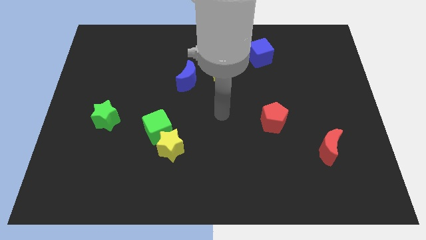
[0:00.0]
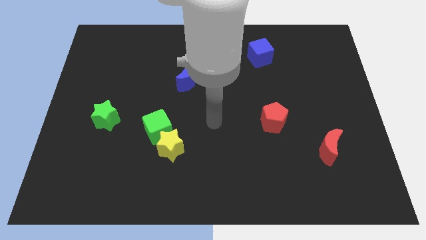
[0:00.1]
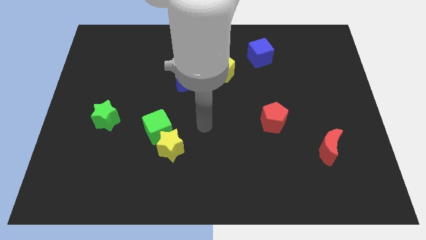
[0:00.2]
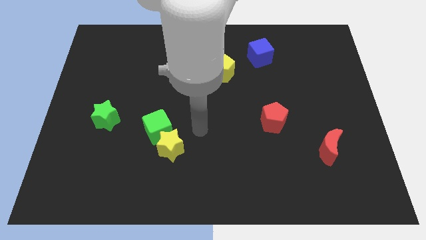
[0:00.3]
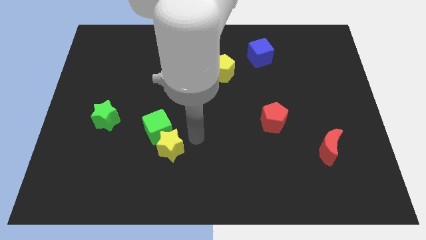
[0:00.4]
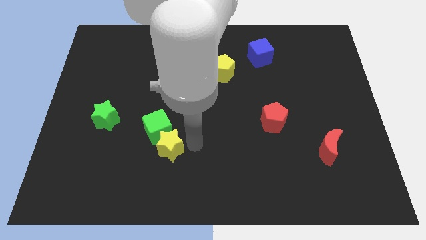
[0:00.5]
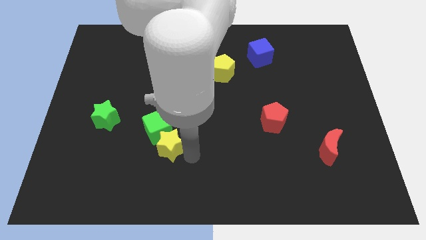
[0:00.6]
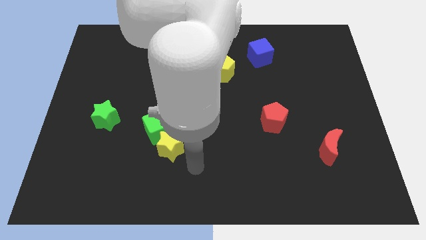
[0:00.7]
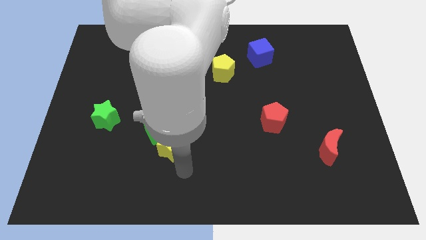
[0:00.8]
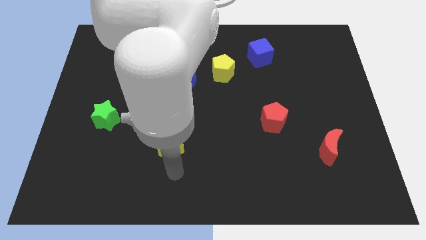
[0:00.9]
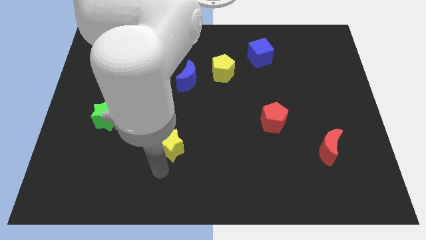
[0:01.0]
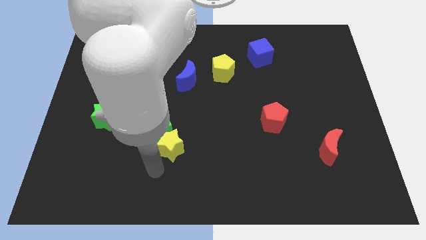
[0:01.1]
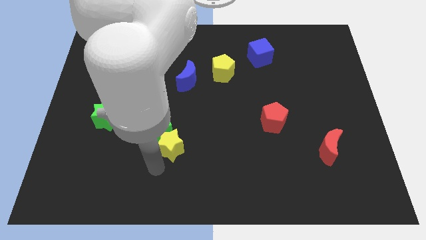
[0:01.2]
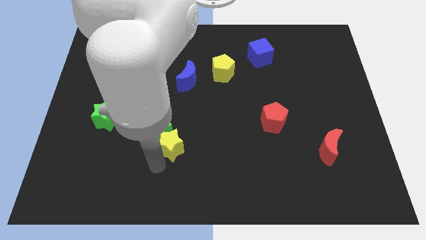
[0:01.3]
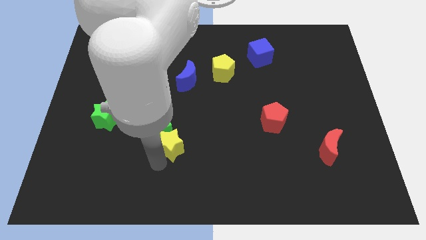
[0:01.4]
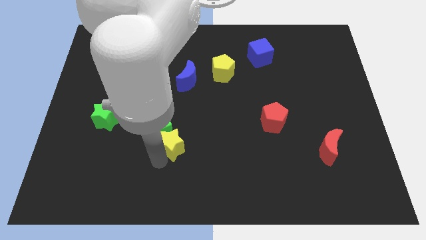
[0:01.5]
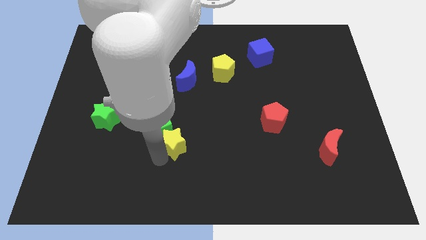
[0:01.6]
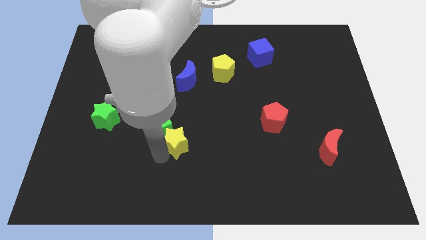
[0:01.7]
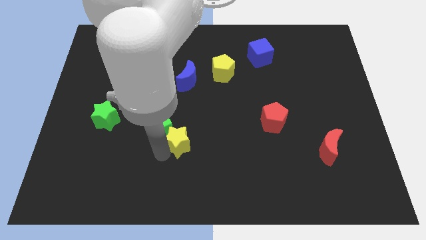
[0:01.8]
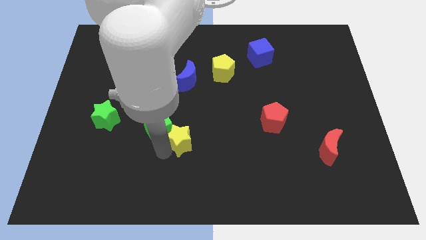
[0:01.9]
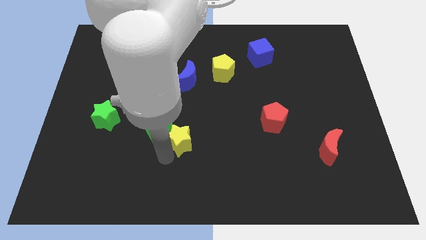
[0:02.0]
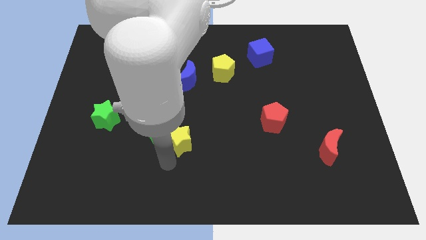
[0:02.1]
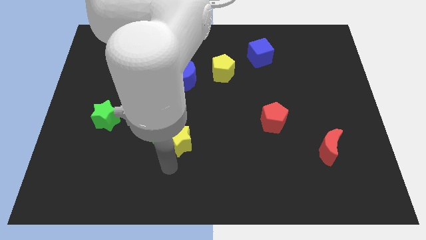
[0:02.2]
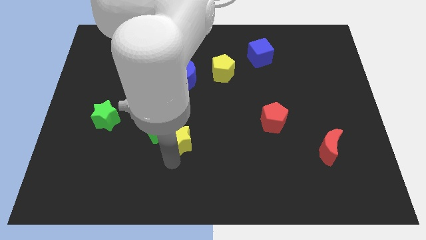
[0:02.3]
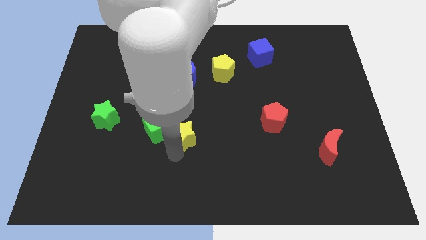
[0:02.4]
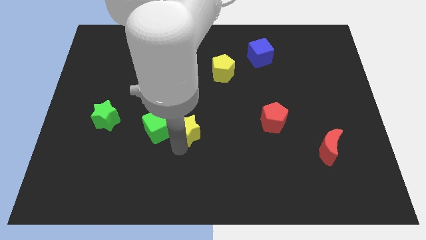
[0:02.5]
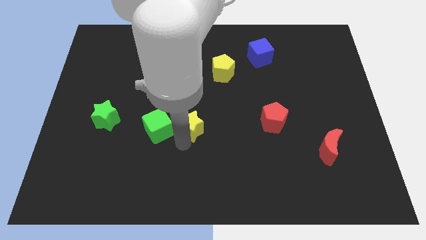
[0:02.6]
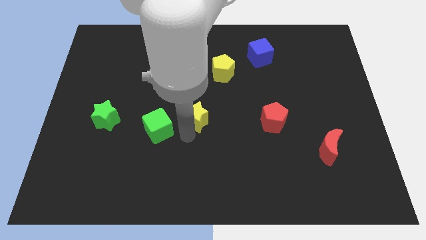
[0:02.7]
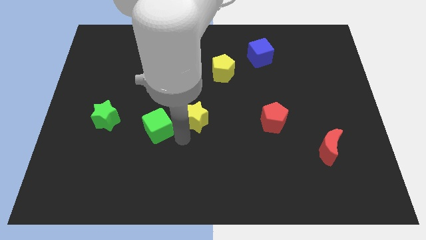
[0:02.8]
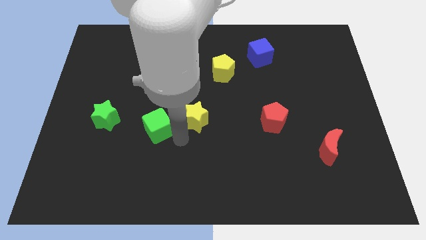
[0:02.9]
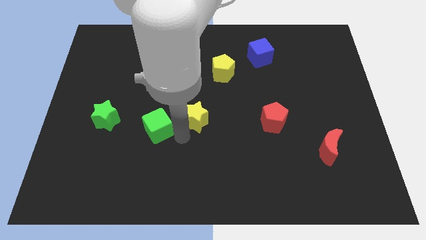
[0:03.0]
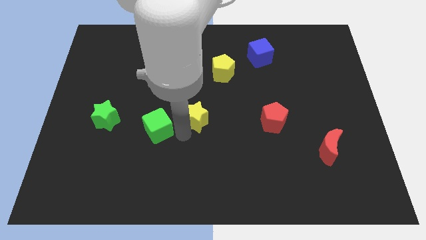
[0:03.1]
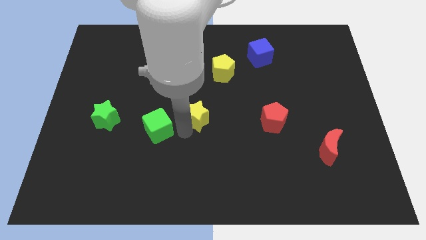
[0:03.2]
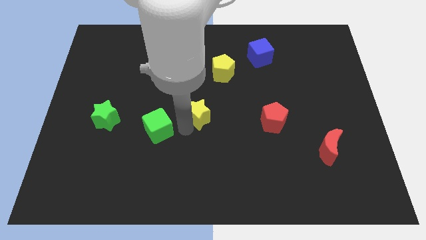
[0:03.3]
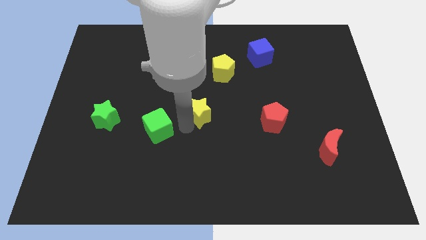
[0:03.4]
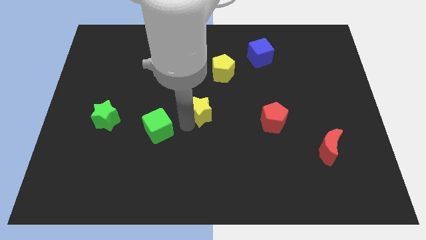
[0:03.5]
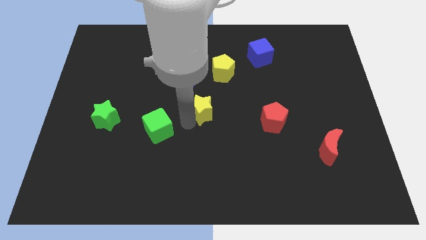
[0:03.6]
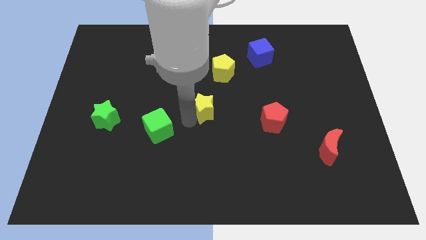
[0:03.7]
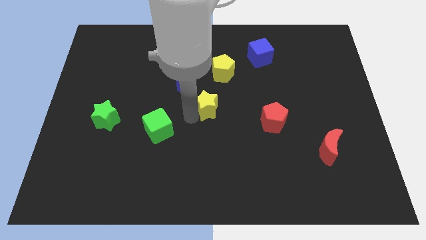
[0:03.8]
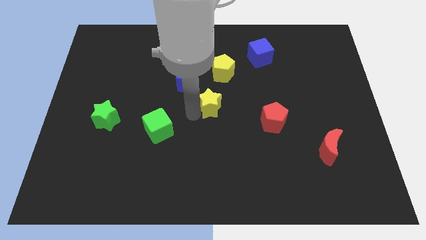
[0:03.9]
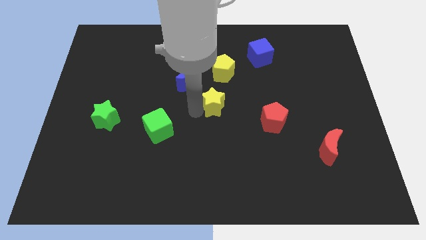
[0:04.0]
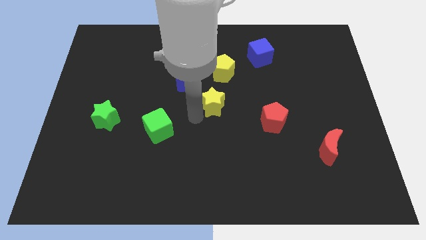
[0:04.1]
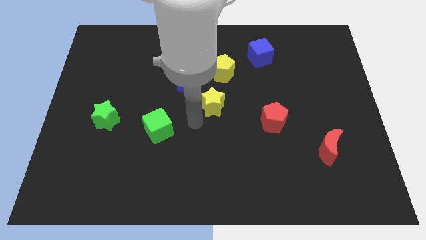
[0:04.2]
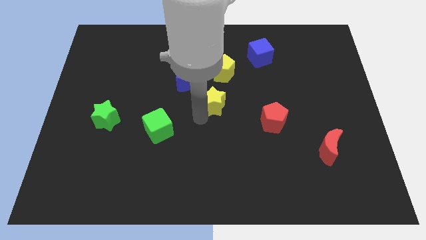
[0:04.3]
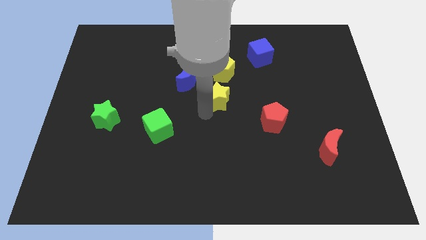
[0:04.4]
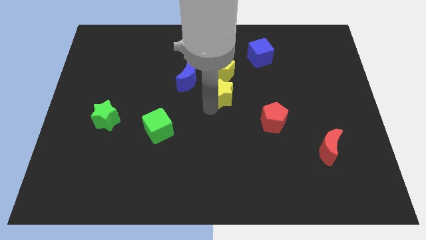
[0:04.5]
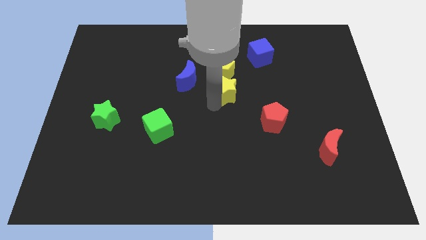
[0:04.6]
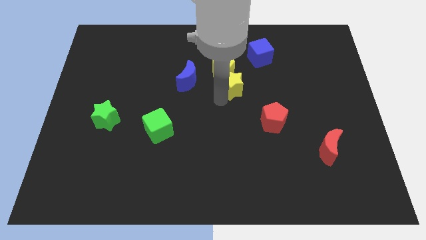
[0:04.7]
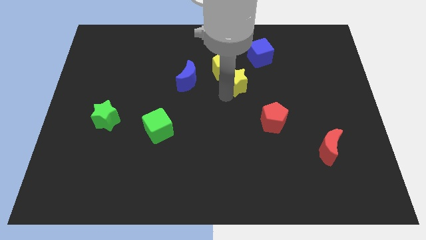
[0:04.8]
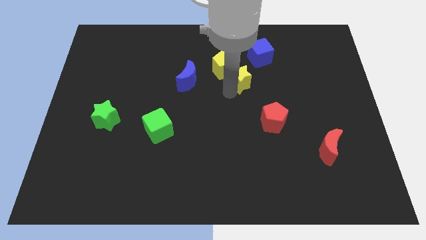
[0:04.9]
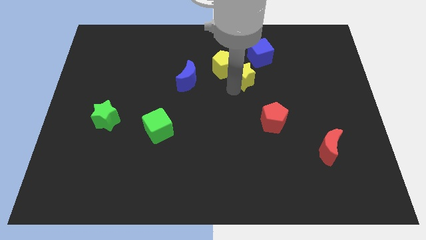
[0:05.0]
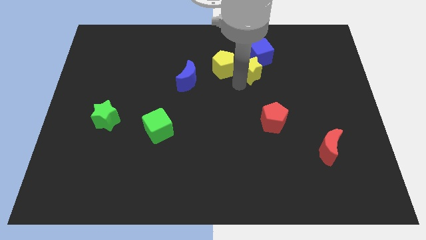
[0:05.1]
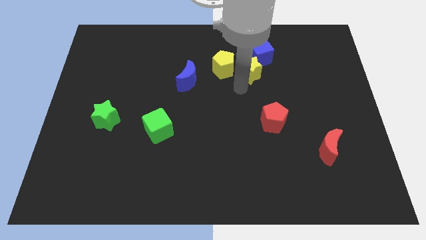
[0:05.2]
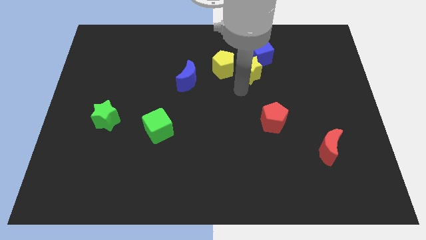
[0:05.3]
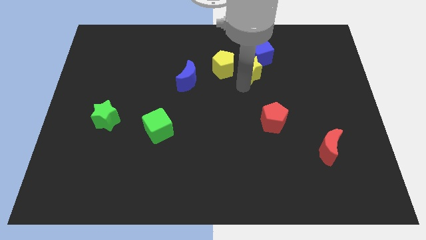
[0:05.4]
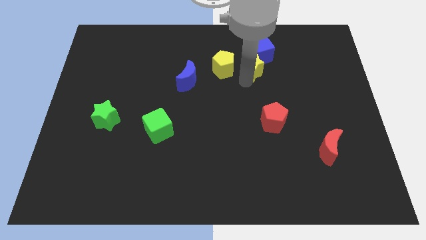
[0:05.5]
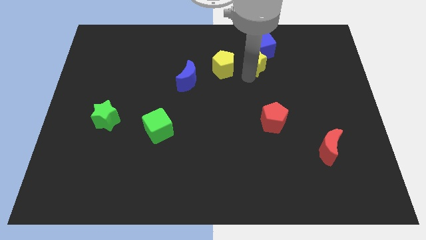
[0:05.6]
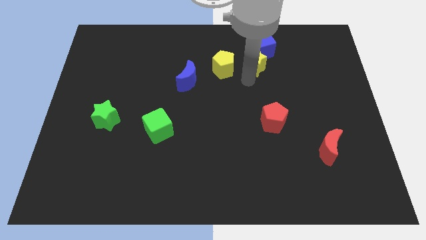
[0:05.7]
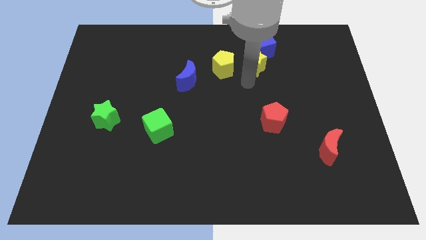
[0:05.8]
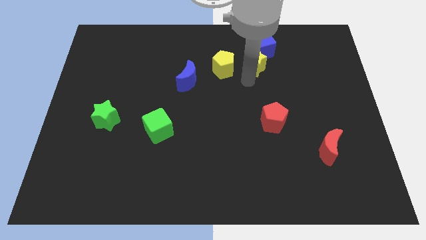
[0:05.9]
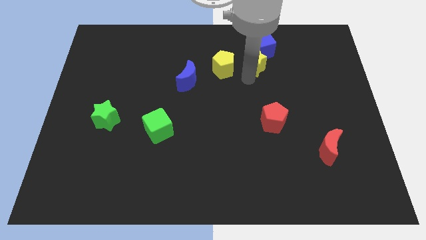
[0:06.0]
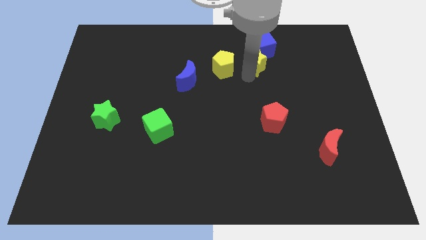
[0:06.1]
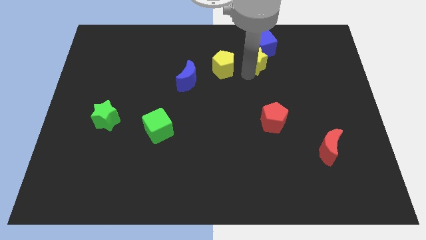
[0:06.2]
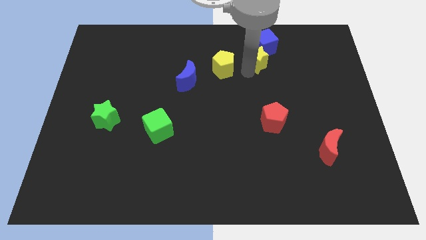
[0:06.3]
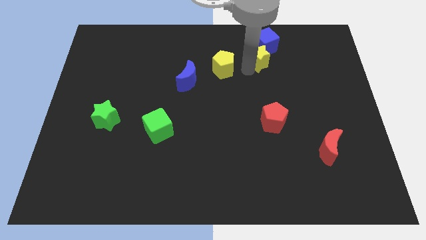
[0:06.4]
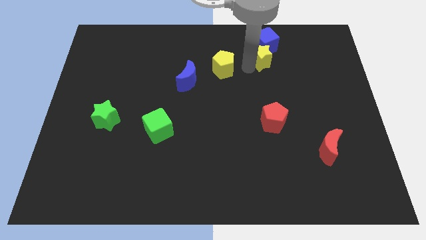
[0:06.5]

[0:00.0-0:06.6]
slide the yellow star next to the blue cube
